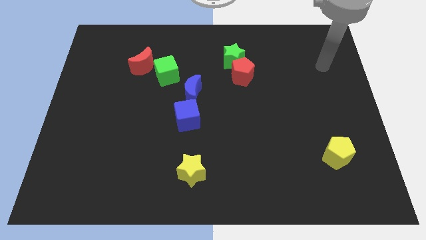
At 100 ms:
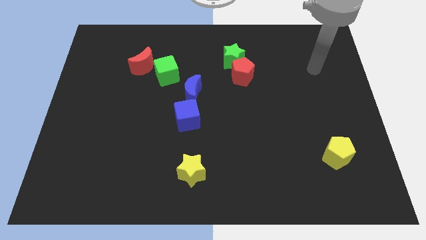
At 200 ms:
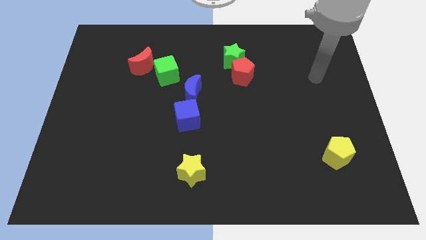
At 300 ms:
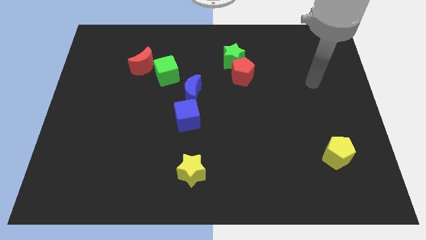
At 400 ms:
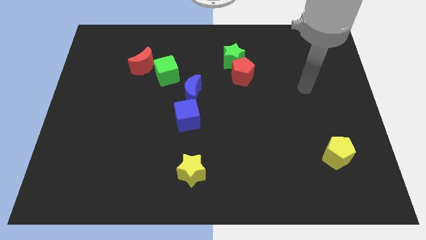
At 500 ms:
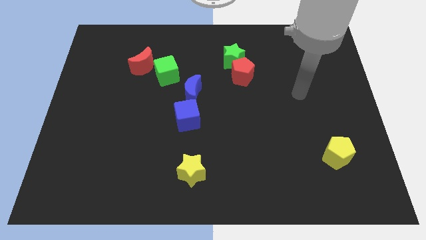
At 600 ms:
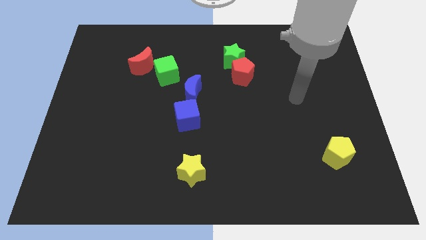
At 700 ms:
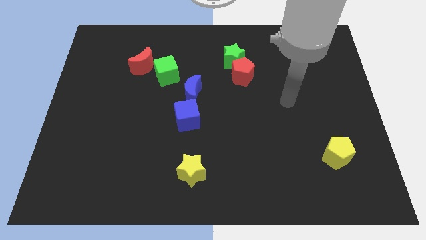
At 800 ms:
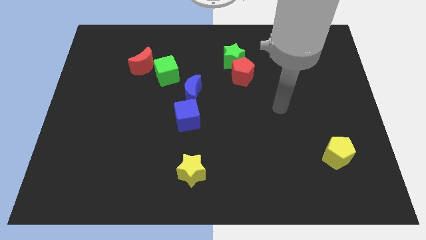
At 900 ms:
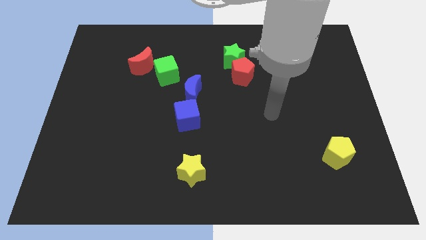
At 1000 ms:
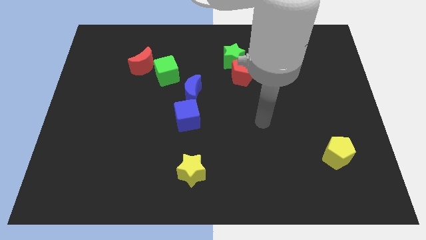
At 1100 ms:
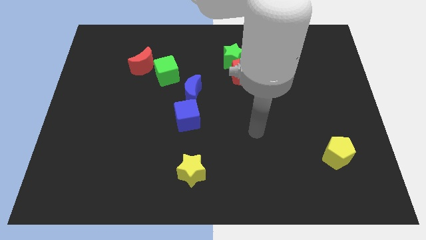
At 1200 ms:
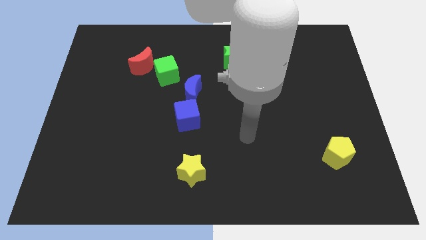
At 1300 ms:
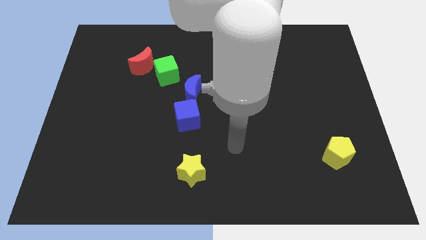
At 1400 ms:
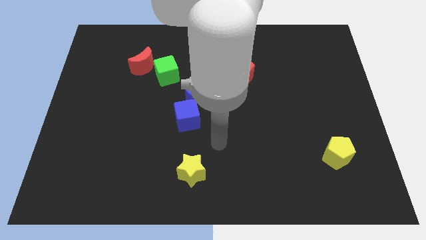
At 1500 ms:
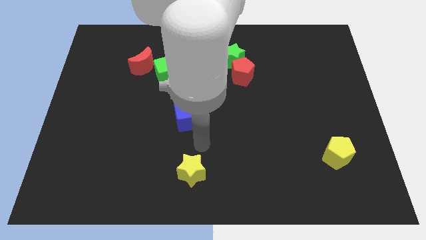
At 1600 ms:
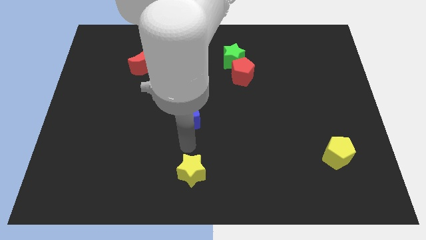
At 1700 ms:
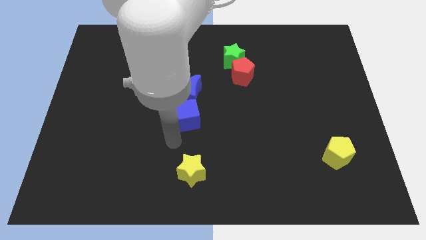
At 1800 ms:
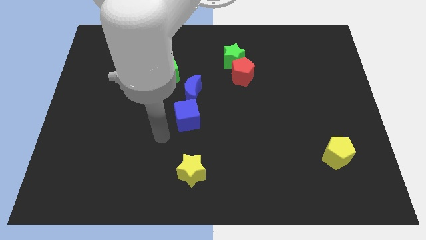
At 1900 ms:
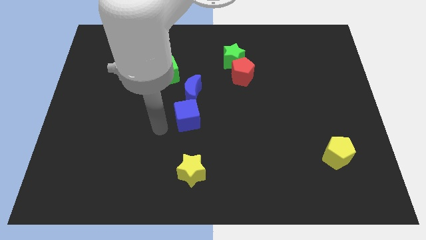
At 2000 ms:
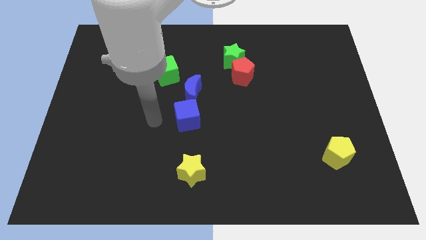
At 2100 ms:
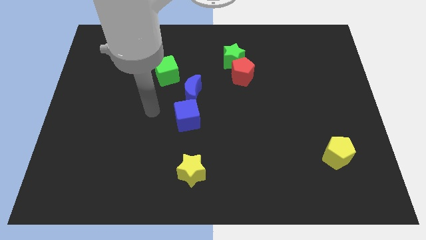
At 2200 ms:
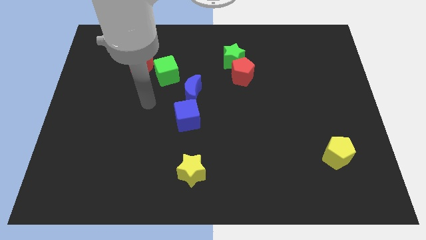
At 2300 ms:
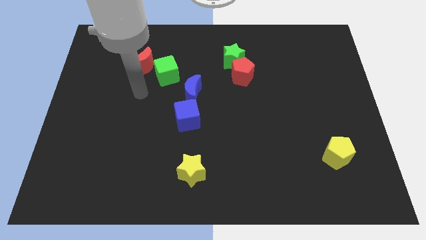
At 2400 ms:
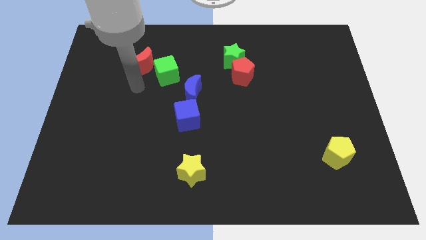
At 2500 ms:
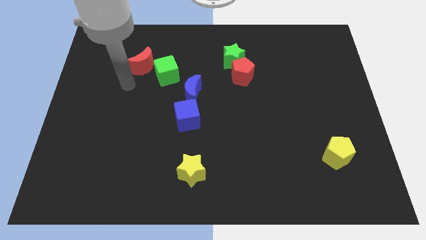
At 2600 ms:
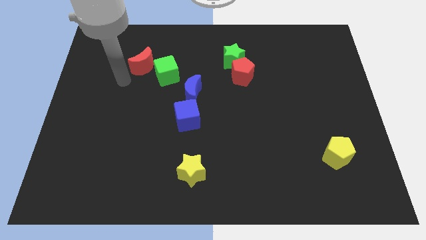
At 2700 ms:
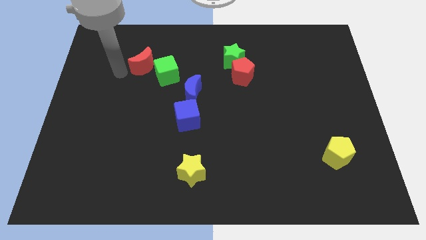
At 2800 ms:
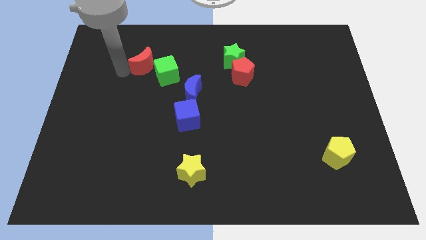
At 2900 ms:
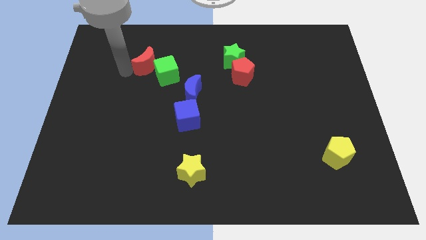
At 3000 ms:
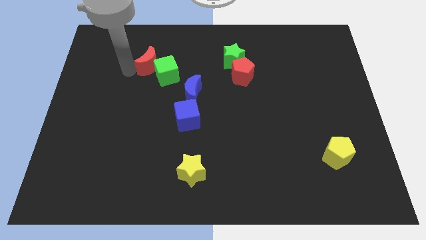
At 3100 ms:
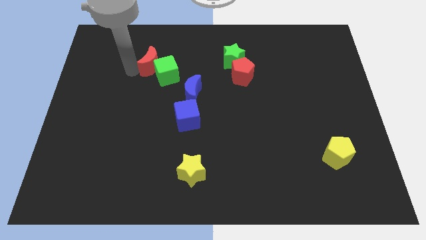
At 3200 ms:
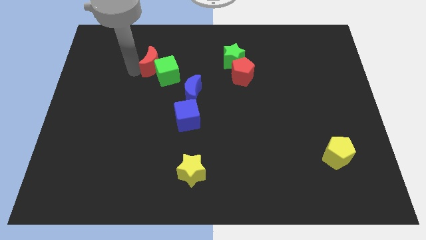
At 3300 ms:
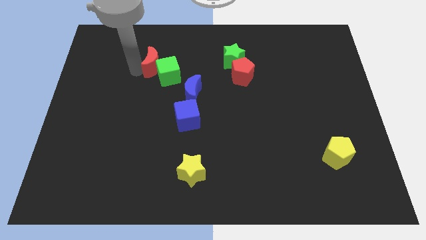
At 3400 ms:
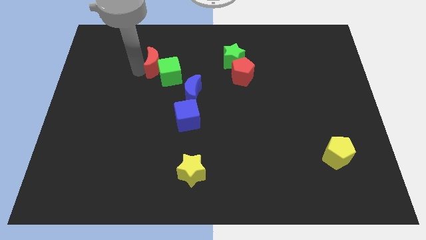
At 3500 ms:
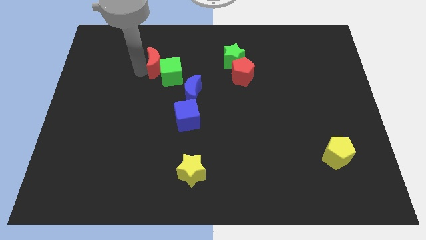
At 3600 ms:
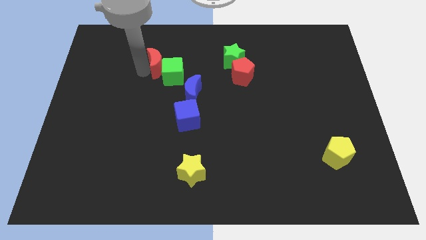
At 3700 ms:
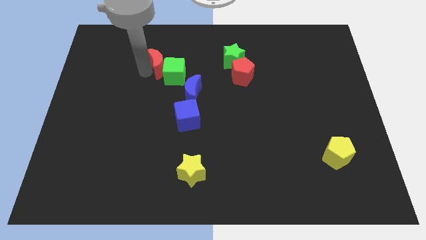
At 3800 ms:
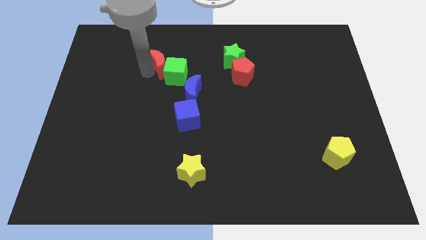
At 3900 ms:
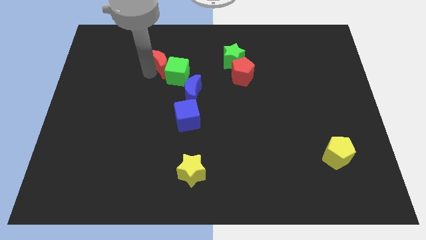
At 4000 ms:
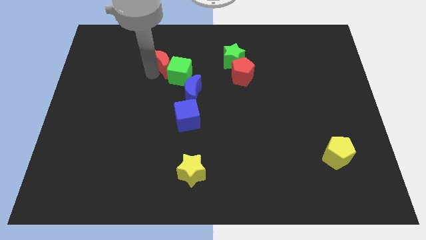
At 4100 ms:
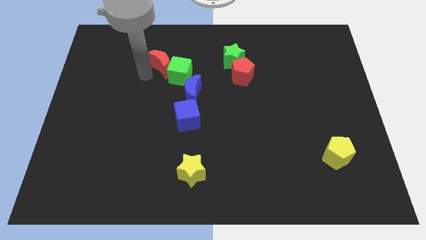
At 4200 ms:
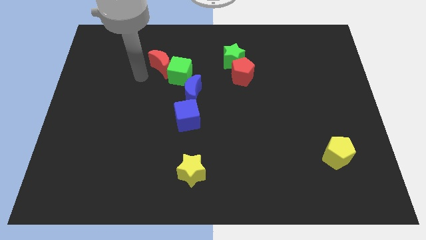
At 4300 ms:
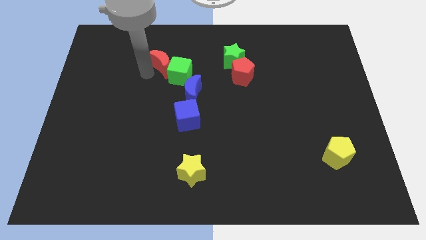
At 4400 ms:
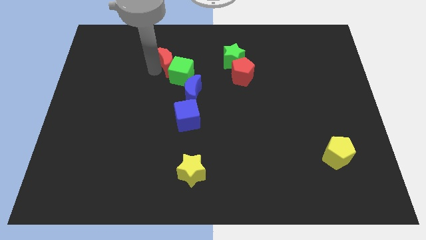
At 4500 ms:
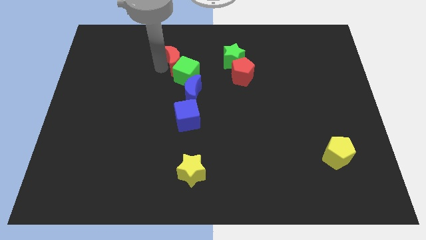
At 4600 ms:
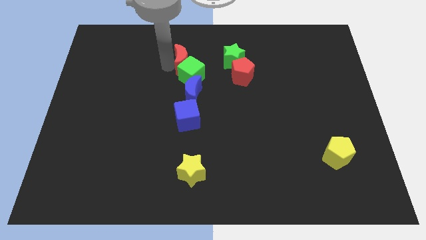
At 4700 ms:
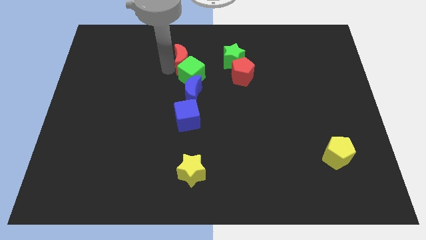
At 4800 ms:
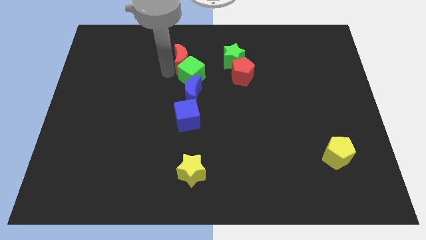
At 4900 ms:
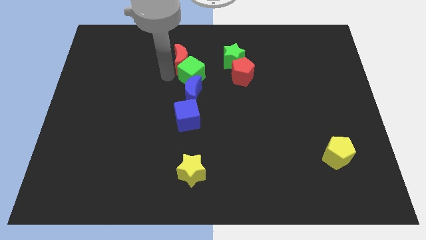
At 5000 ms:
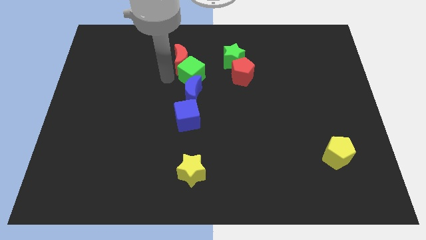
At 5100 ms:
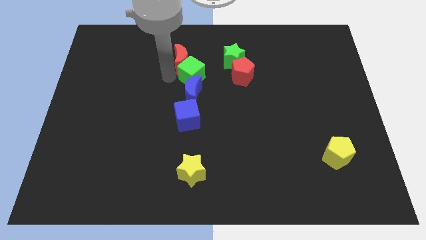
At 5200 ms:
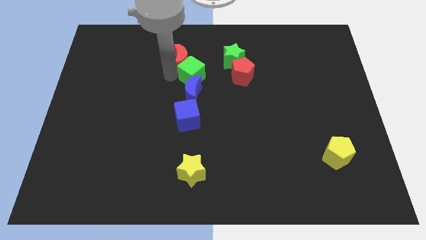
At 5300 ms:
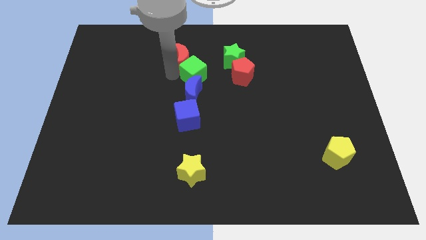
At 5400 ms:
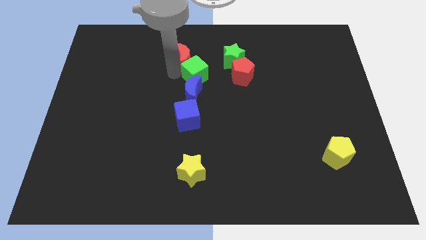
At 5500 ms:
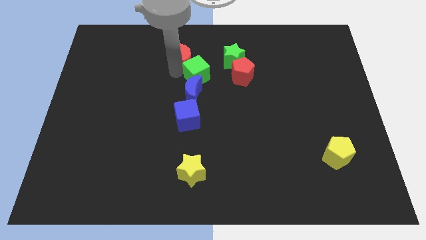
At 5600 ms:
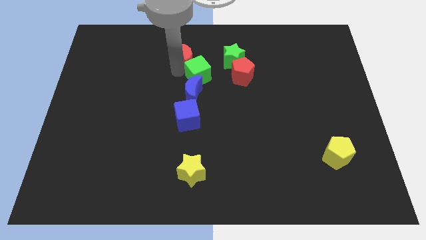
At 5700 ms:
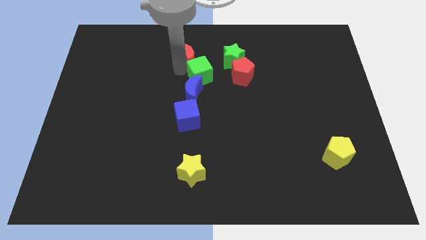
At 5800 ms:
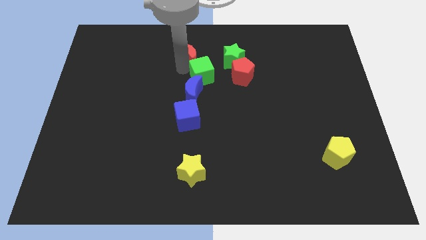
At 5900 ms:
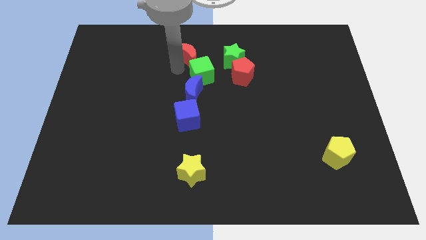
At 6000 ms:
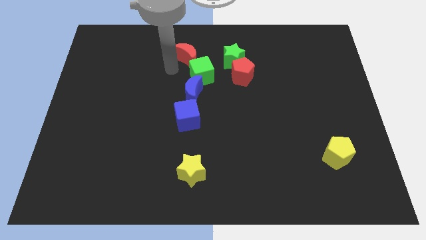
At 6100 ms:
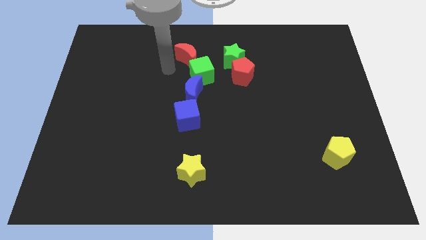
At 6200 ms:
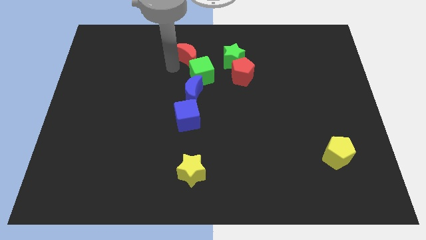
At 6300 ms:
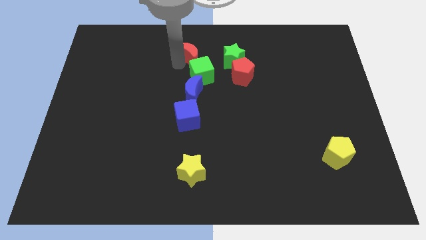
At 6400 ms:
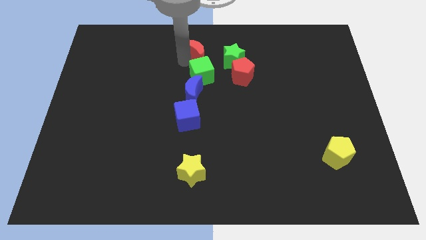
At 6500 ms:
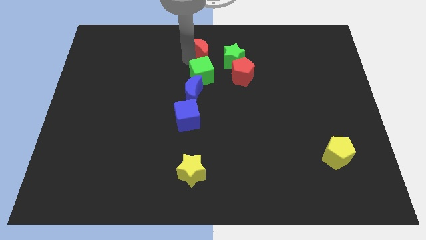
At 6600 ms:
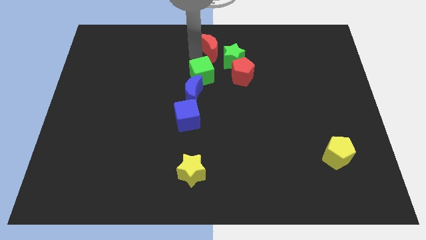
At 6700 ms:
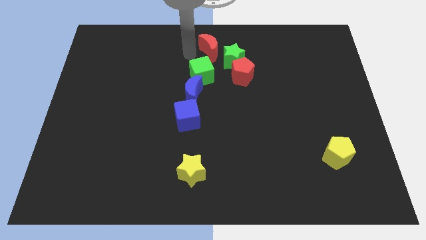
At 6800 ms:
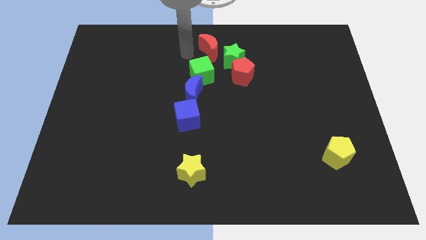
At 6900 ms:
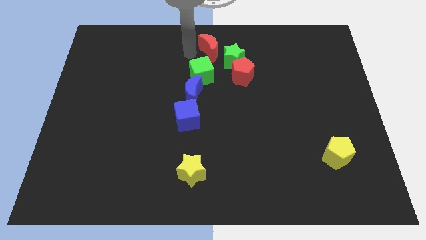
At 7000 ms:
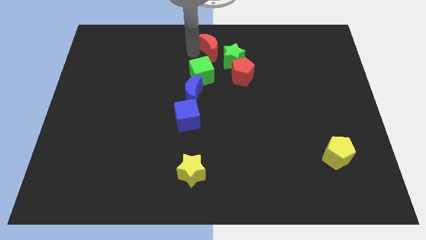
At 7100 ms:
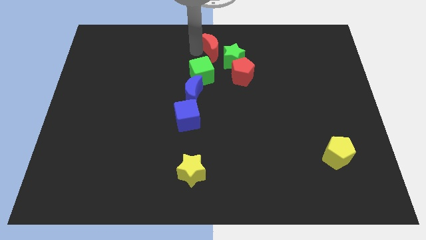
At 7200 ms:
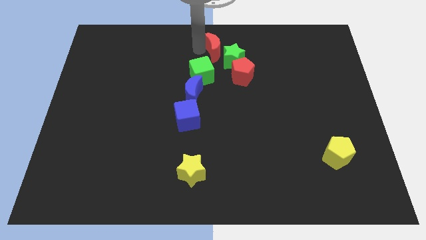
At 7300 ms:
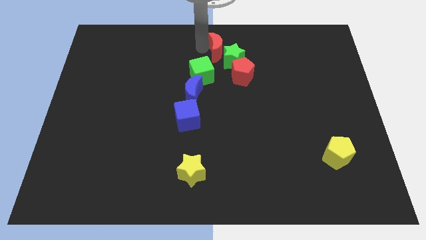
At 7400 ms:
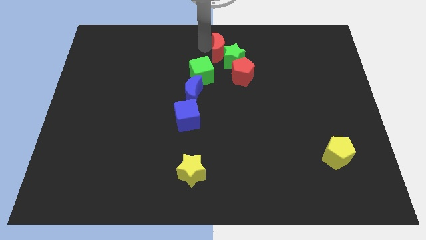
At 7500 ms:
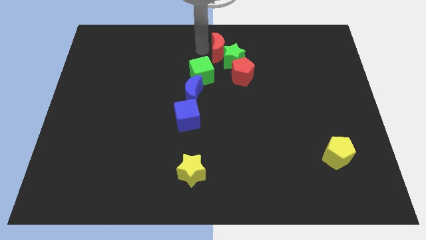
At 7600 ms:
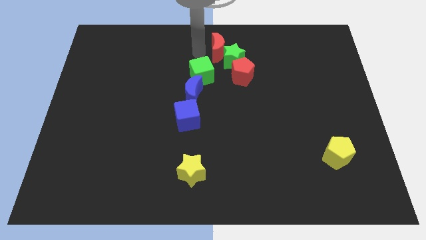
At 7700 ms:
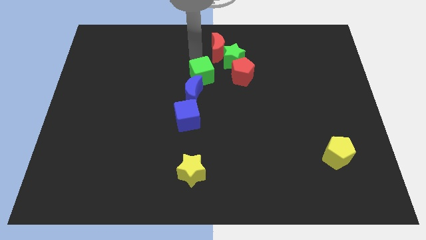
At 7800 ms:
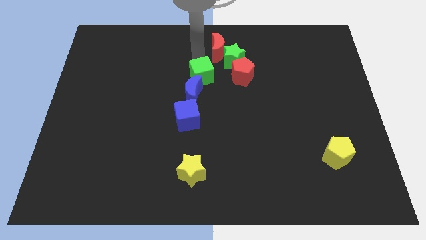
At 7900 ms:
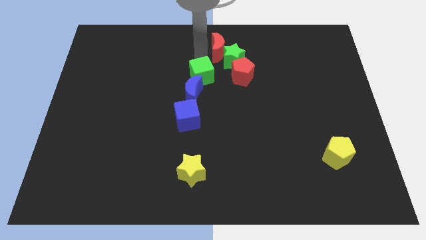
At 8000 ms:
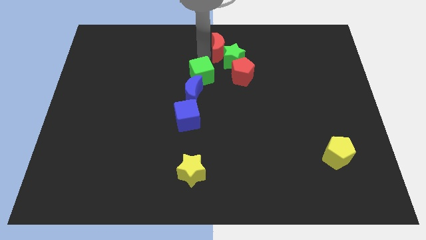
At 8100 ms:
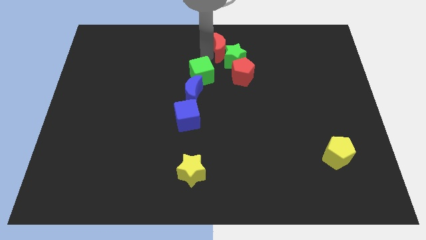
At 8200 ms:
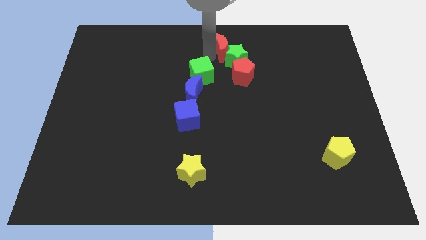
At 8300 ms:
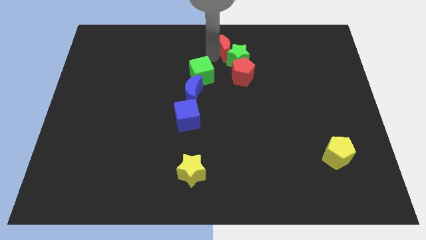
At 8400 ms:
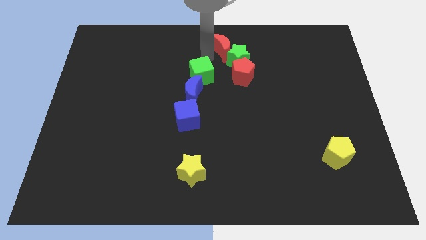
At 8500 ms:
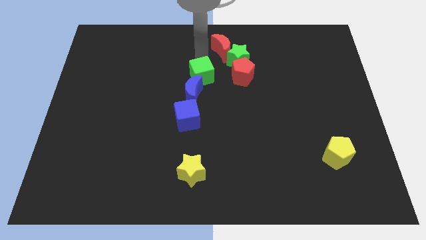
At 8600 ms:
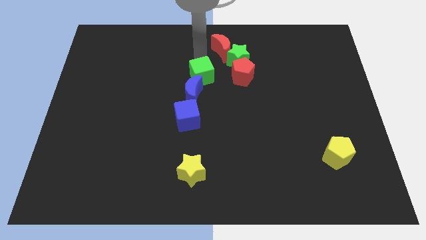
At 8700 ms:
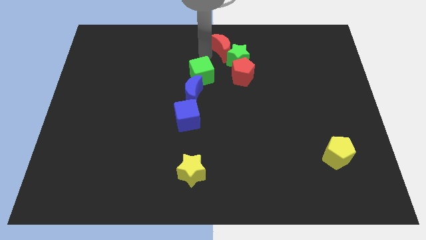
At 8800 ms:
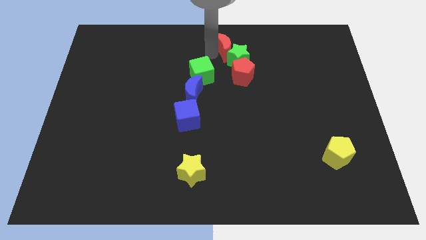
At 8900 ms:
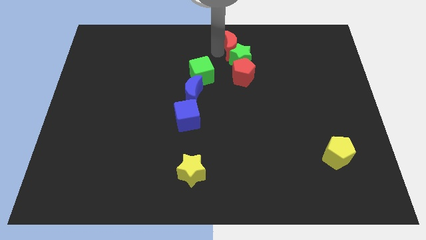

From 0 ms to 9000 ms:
push the red moon right
